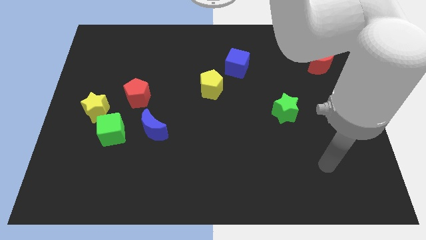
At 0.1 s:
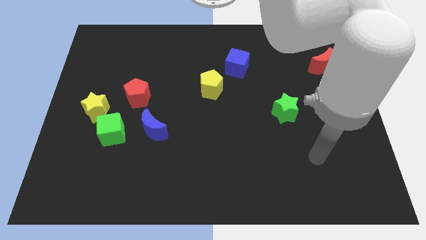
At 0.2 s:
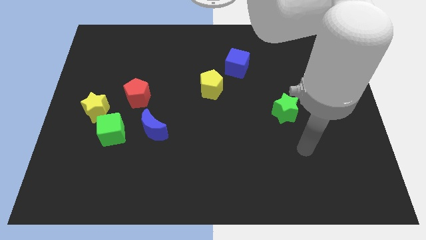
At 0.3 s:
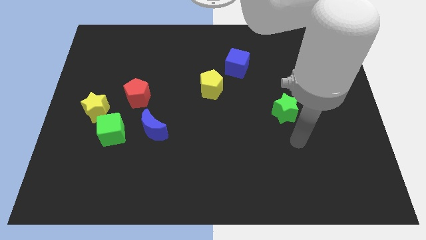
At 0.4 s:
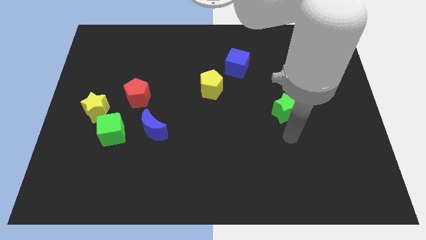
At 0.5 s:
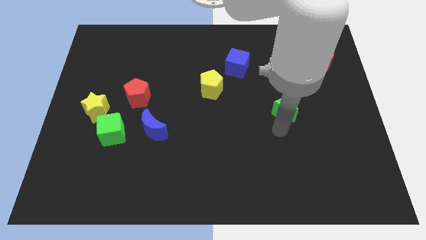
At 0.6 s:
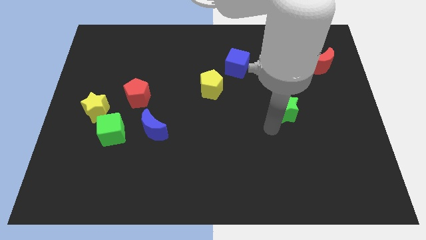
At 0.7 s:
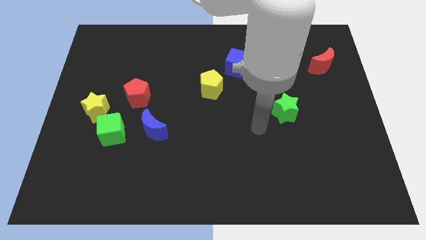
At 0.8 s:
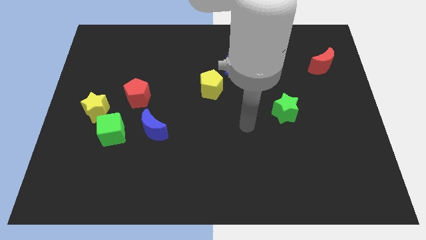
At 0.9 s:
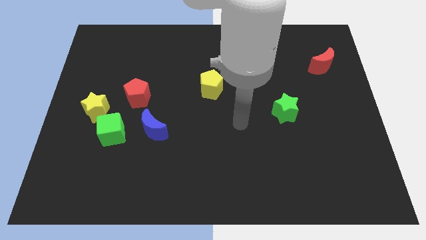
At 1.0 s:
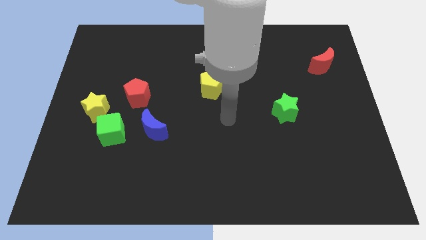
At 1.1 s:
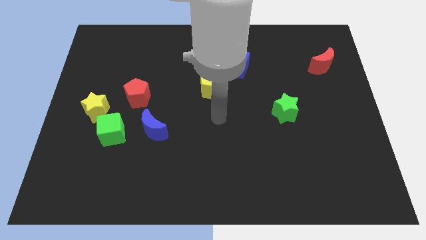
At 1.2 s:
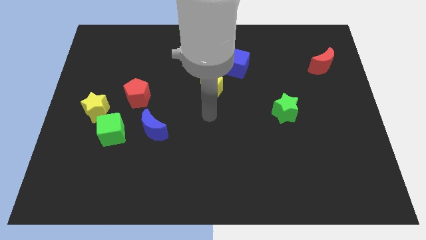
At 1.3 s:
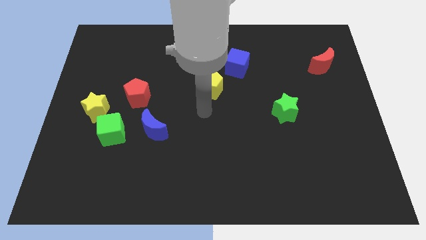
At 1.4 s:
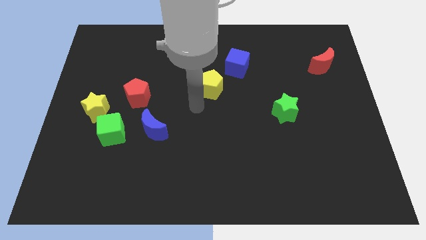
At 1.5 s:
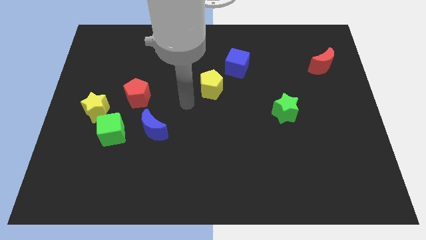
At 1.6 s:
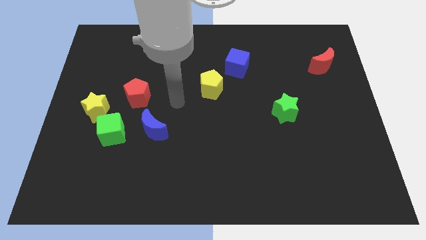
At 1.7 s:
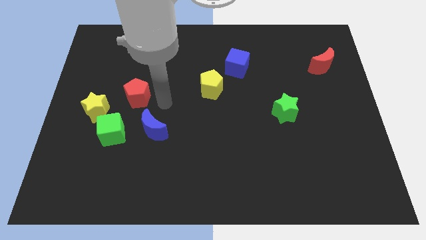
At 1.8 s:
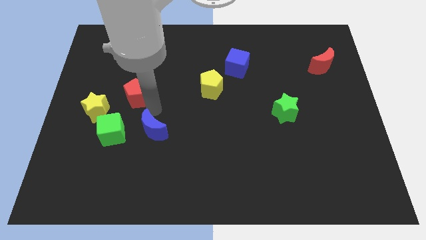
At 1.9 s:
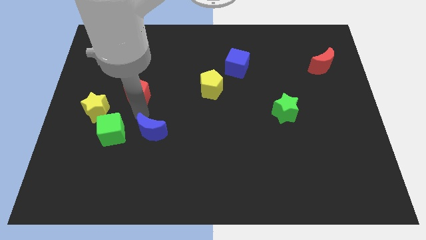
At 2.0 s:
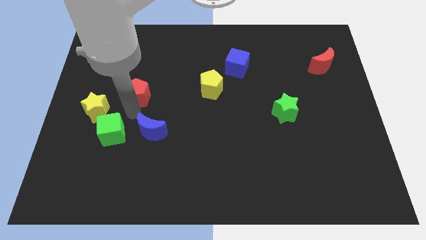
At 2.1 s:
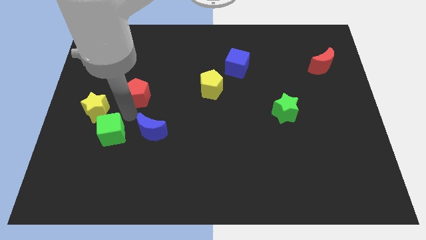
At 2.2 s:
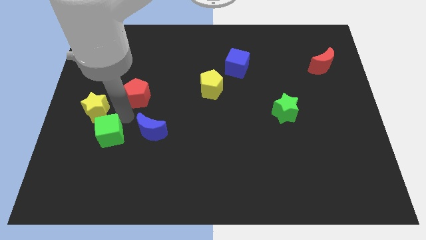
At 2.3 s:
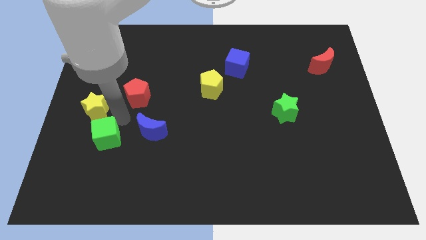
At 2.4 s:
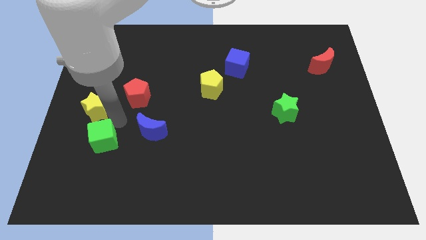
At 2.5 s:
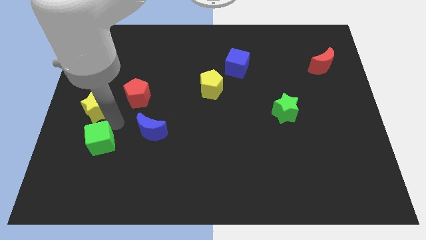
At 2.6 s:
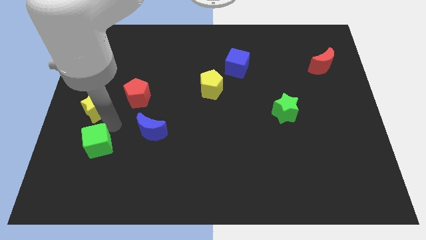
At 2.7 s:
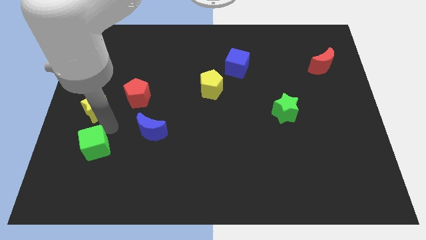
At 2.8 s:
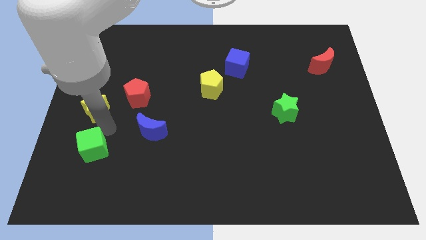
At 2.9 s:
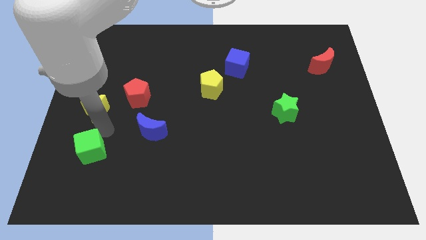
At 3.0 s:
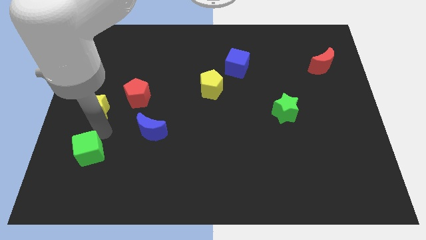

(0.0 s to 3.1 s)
move the green cube away from the yellow star and blue moon

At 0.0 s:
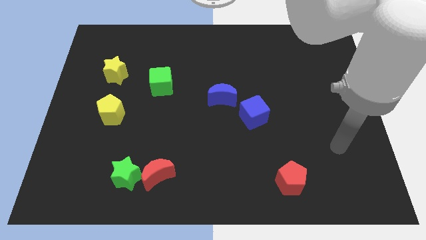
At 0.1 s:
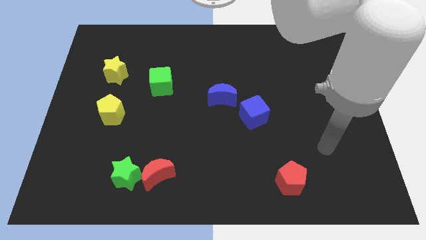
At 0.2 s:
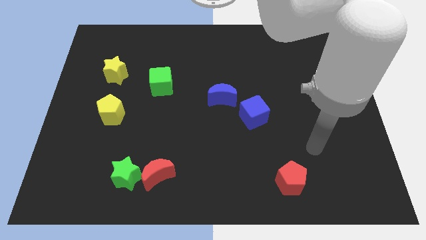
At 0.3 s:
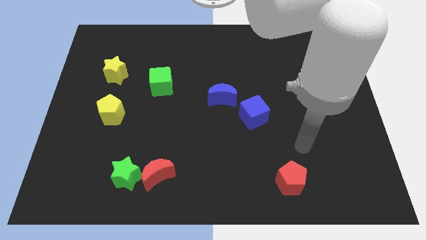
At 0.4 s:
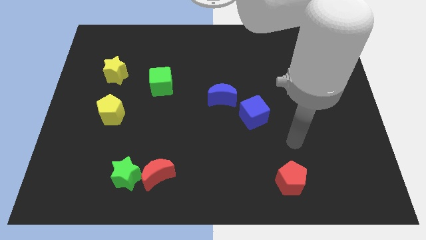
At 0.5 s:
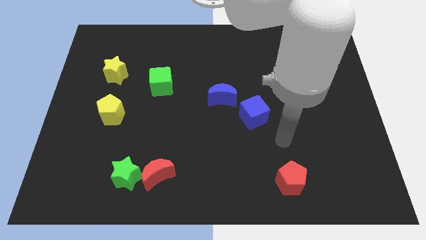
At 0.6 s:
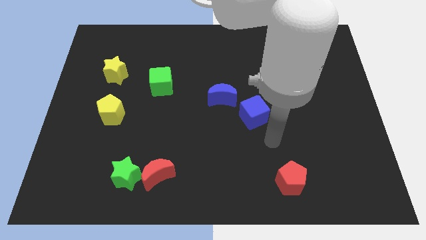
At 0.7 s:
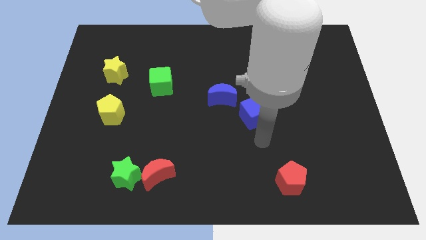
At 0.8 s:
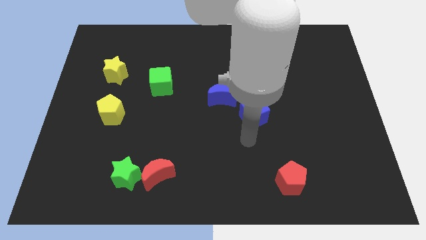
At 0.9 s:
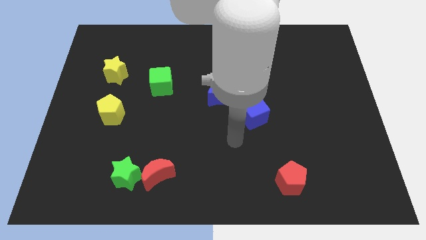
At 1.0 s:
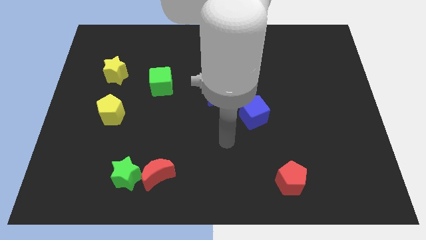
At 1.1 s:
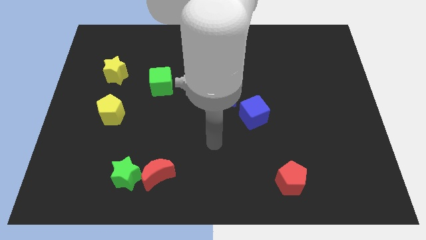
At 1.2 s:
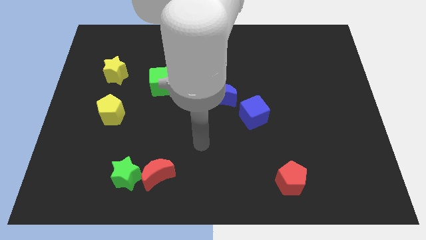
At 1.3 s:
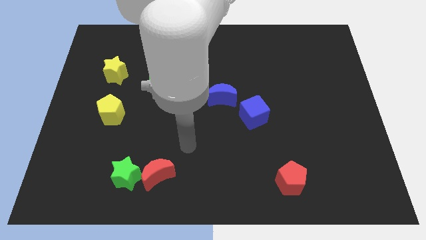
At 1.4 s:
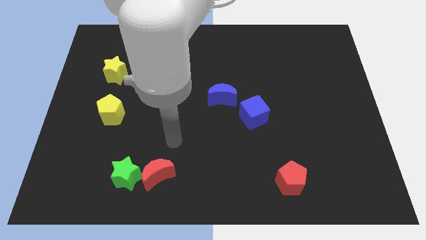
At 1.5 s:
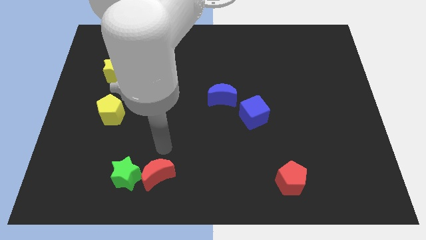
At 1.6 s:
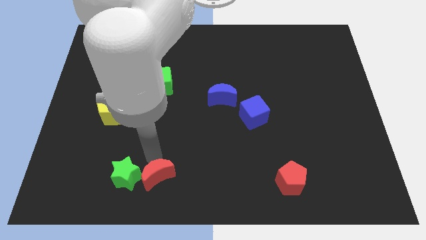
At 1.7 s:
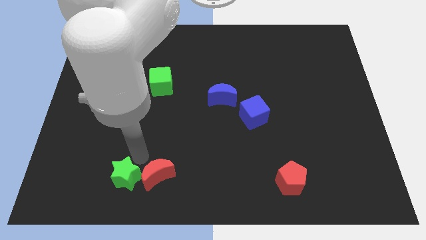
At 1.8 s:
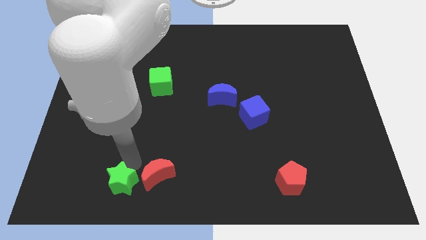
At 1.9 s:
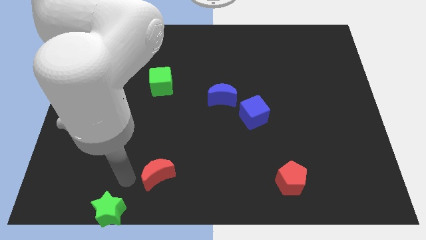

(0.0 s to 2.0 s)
move the red moon away from the green star

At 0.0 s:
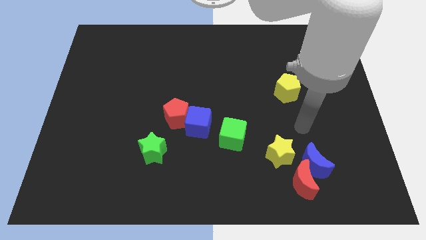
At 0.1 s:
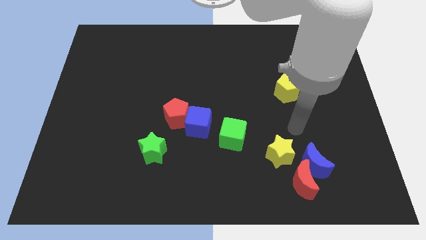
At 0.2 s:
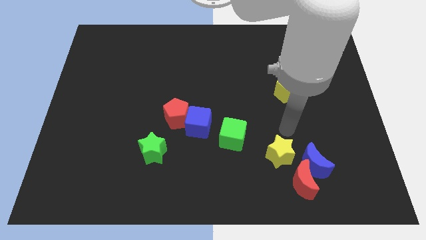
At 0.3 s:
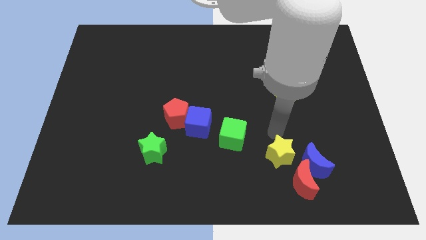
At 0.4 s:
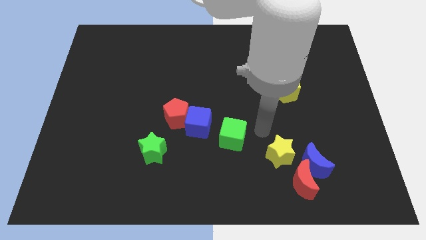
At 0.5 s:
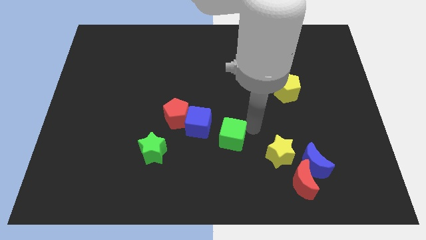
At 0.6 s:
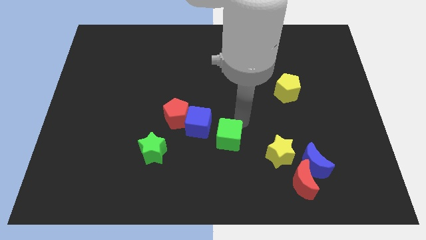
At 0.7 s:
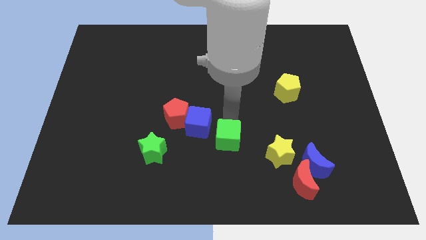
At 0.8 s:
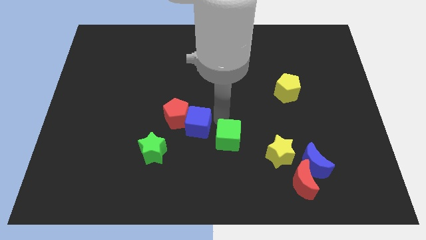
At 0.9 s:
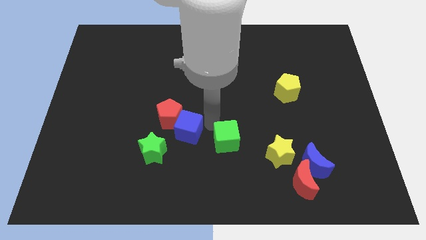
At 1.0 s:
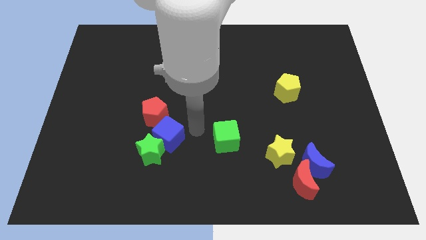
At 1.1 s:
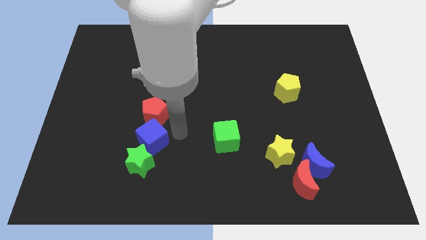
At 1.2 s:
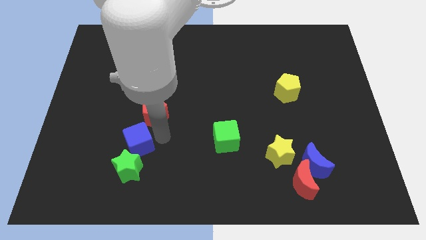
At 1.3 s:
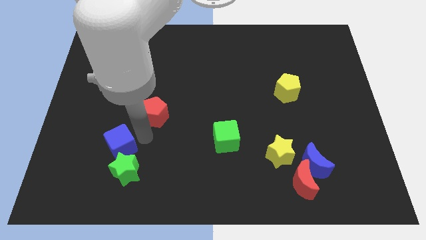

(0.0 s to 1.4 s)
pull the red pentagon apart from the blue cube

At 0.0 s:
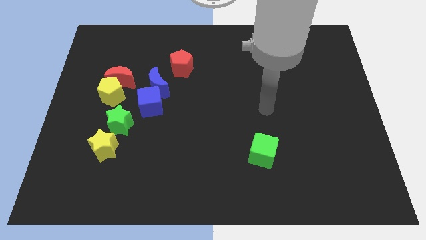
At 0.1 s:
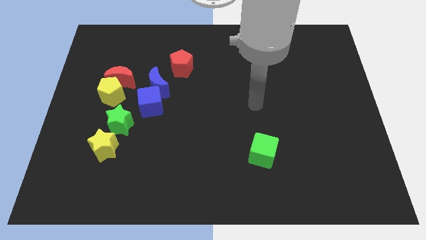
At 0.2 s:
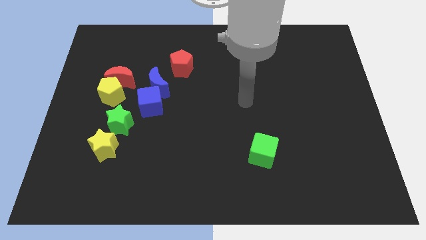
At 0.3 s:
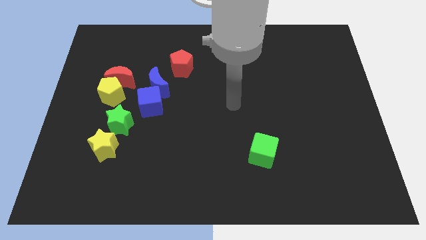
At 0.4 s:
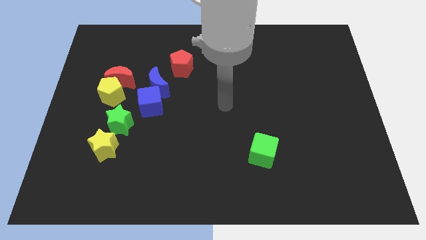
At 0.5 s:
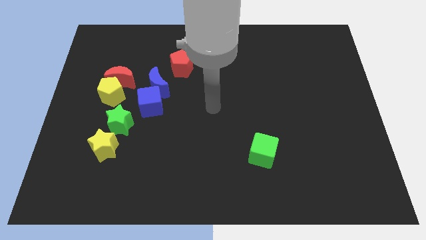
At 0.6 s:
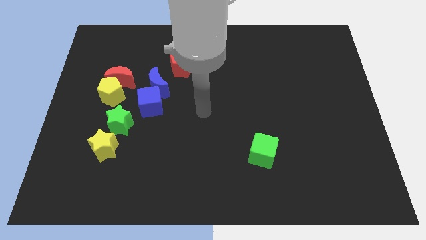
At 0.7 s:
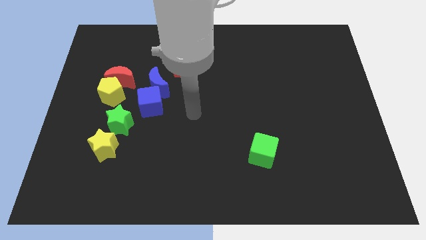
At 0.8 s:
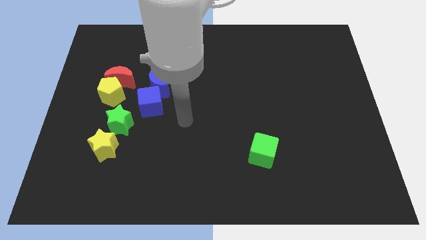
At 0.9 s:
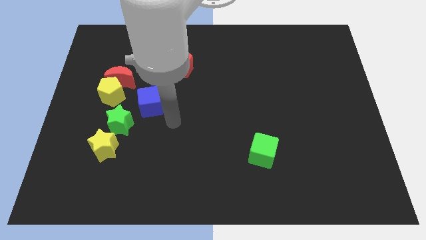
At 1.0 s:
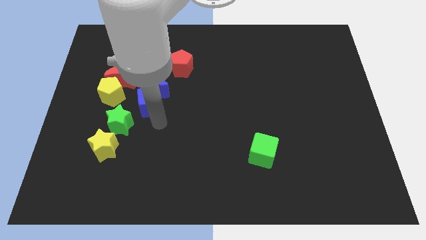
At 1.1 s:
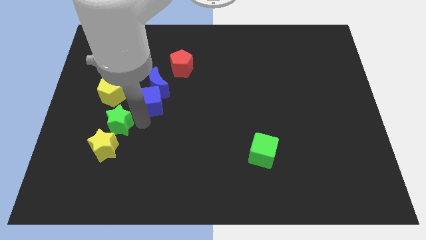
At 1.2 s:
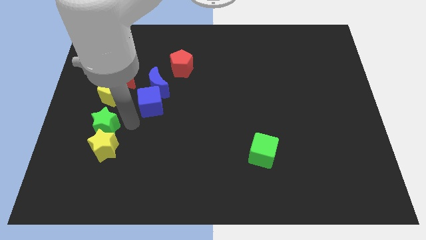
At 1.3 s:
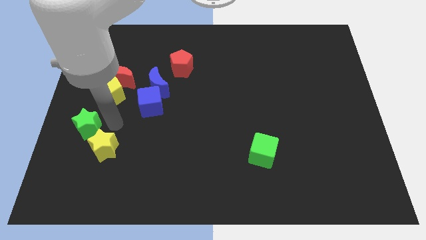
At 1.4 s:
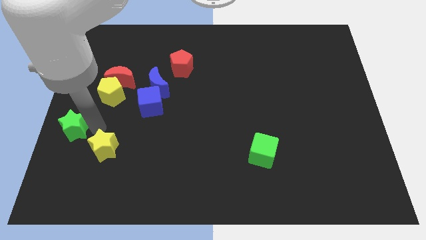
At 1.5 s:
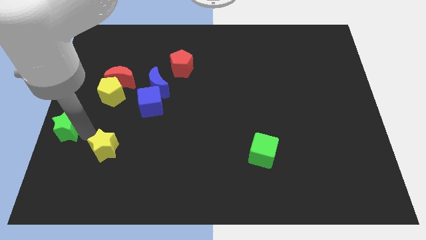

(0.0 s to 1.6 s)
move the yellow star away from the green star

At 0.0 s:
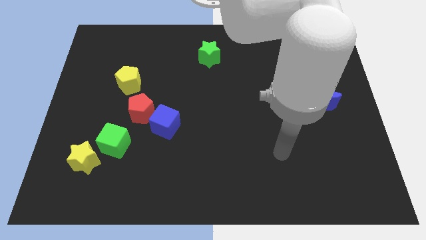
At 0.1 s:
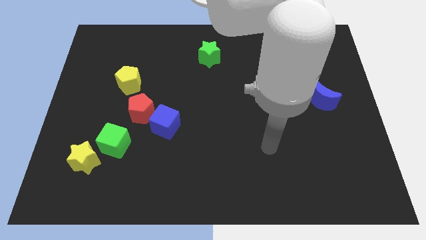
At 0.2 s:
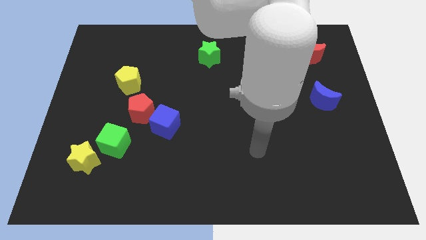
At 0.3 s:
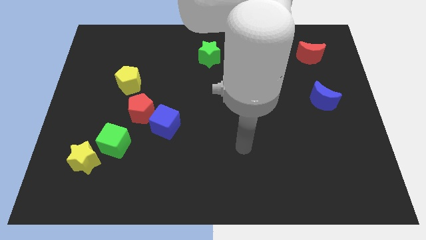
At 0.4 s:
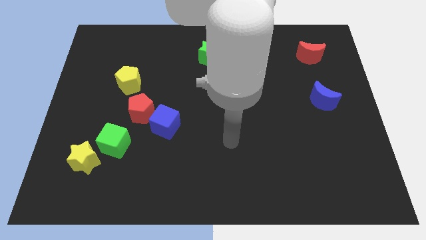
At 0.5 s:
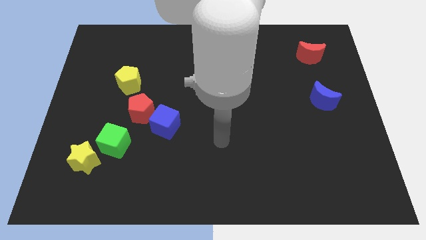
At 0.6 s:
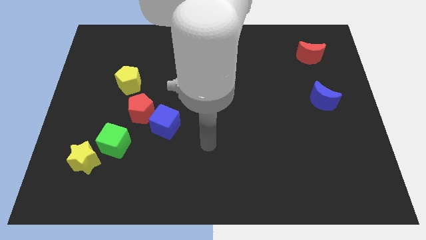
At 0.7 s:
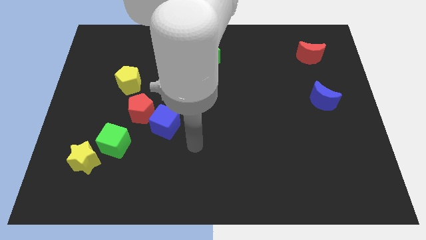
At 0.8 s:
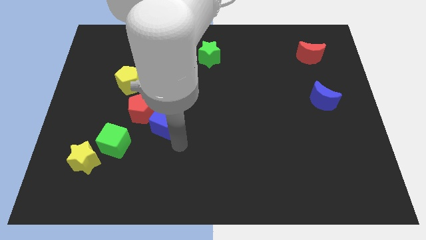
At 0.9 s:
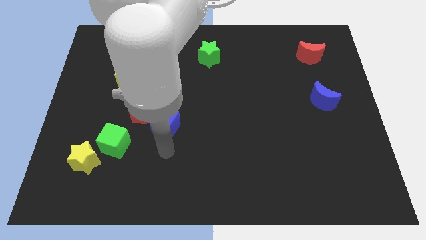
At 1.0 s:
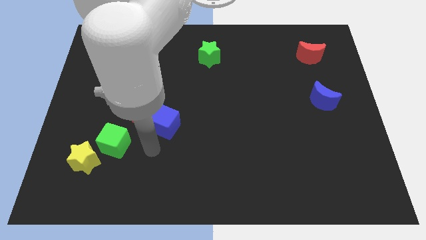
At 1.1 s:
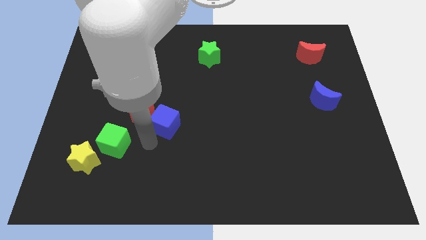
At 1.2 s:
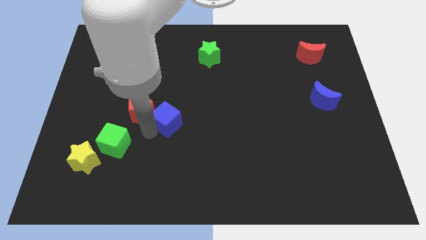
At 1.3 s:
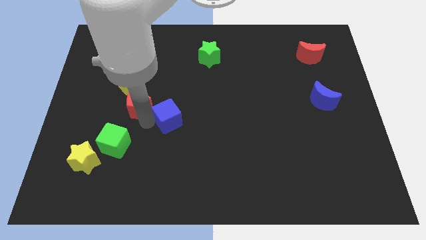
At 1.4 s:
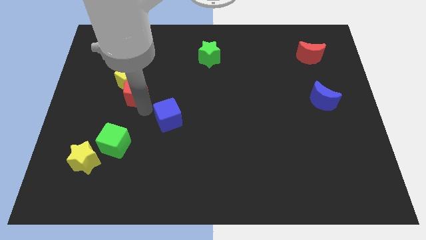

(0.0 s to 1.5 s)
pull the blue cube apart from the red pentagon
